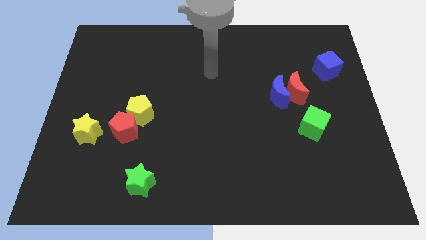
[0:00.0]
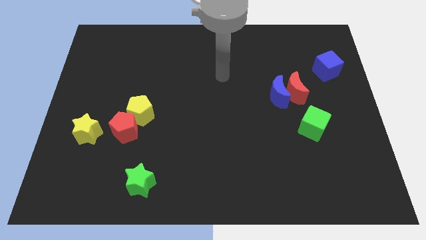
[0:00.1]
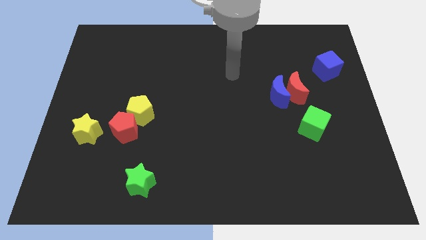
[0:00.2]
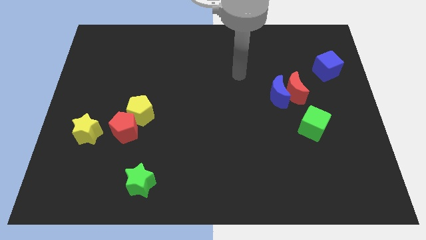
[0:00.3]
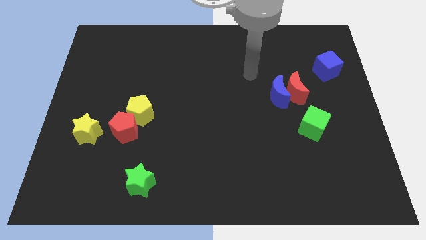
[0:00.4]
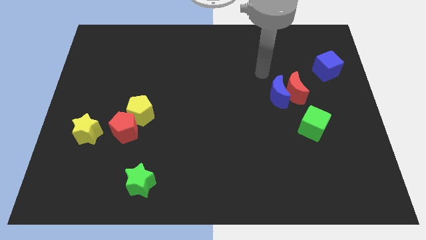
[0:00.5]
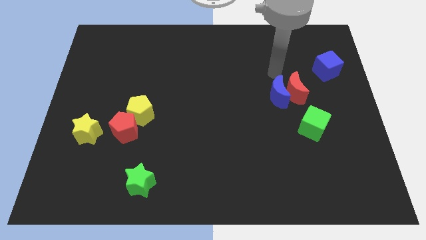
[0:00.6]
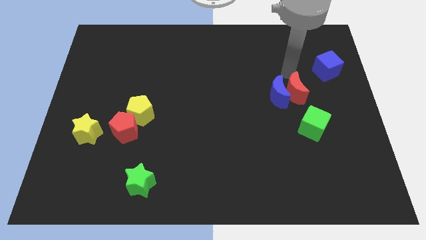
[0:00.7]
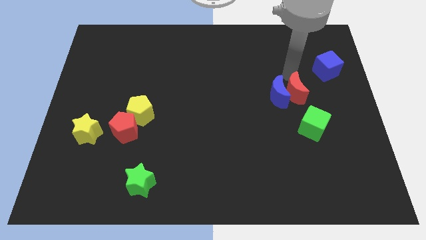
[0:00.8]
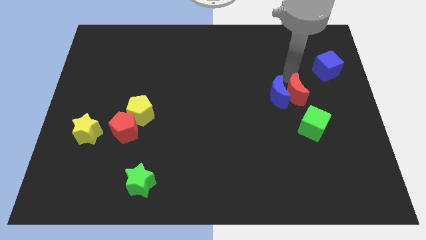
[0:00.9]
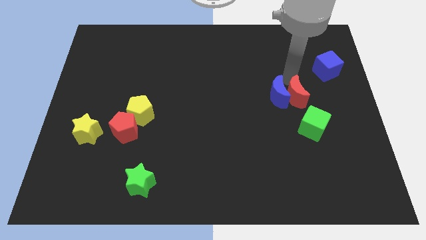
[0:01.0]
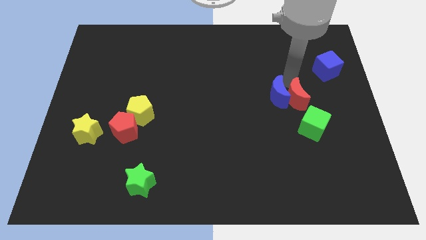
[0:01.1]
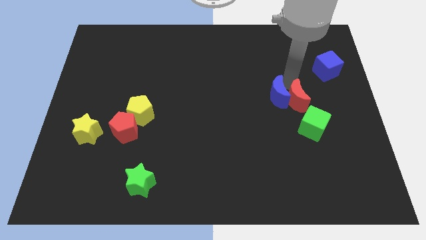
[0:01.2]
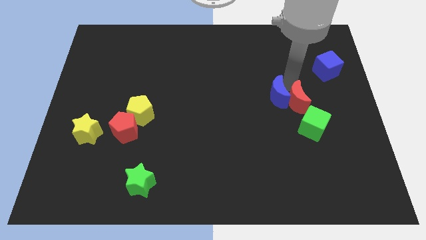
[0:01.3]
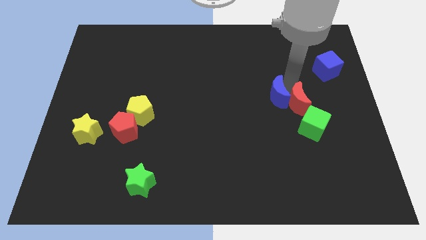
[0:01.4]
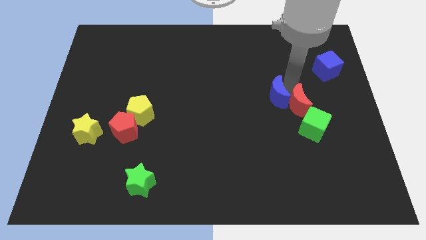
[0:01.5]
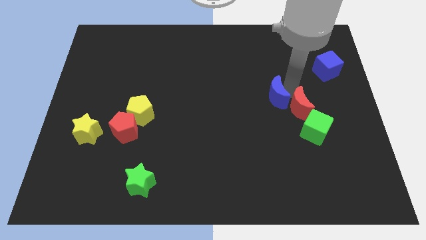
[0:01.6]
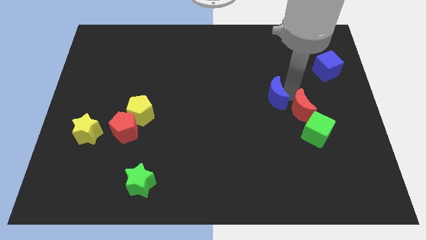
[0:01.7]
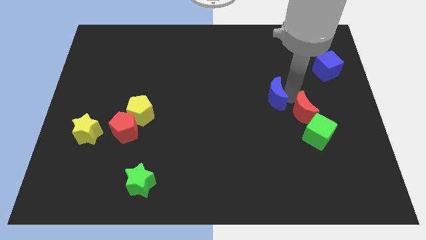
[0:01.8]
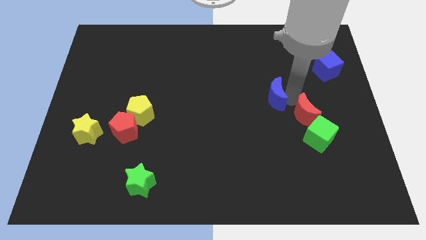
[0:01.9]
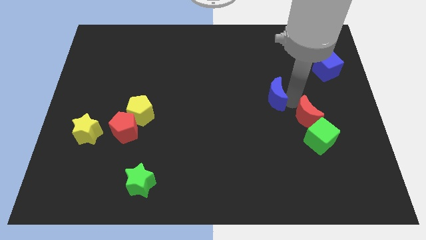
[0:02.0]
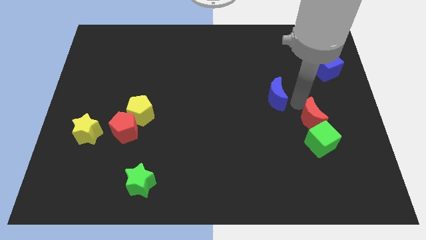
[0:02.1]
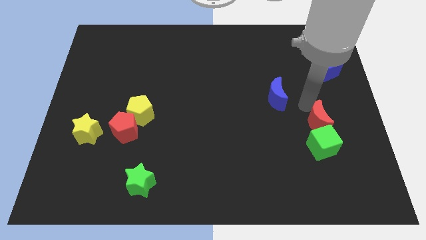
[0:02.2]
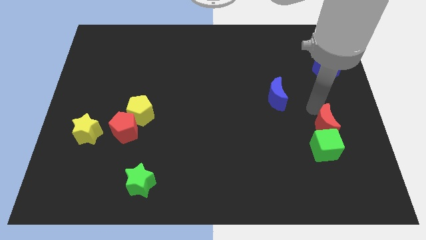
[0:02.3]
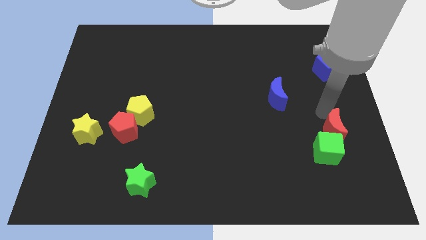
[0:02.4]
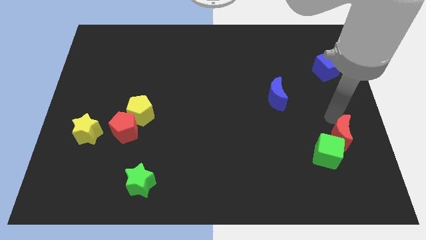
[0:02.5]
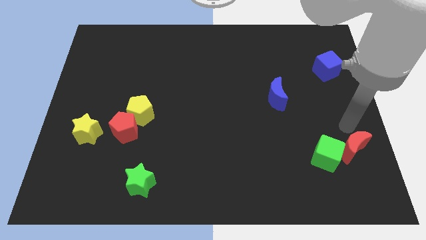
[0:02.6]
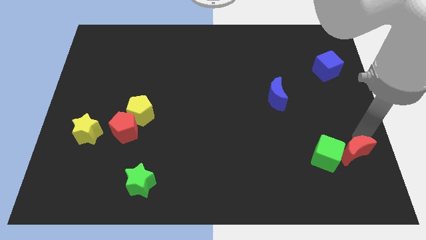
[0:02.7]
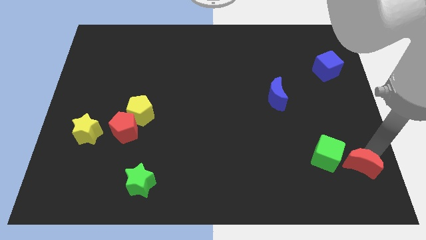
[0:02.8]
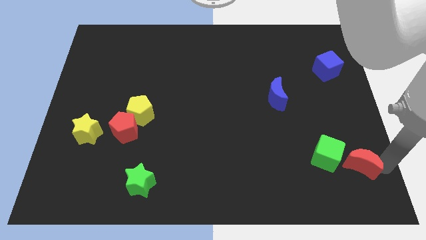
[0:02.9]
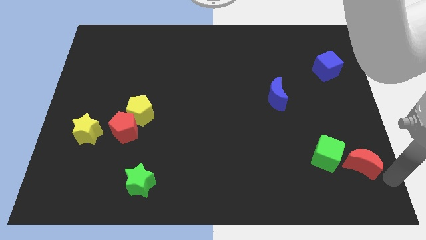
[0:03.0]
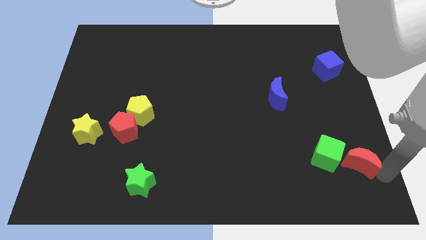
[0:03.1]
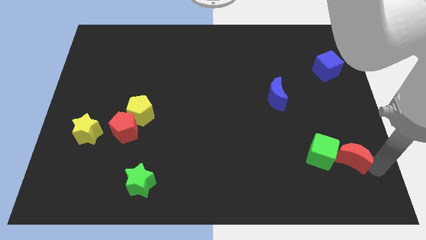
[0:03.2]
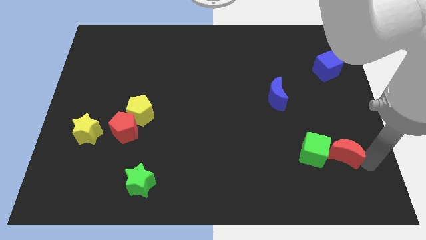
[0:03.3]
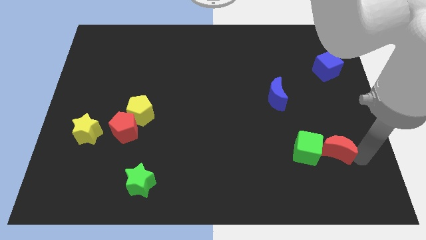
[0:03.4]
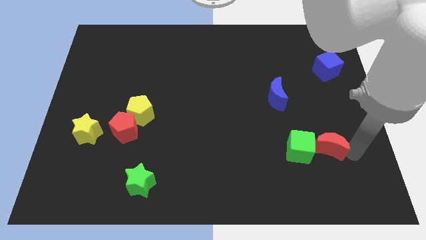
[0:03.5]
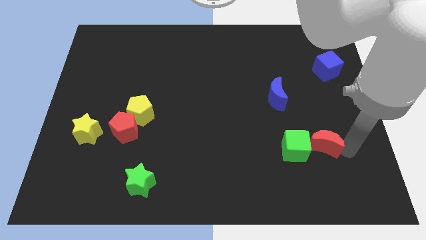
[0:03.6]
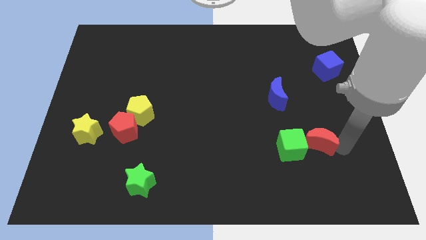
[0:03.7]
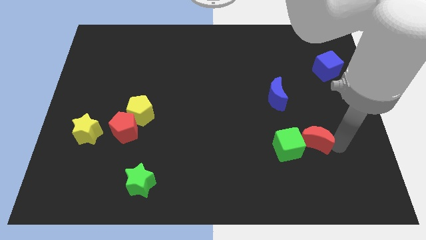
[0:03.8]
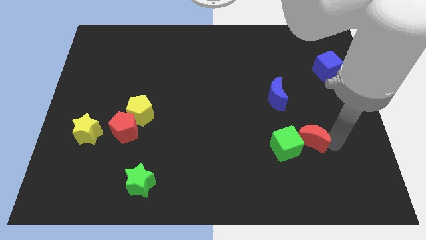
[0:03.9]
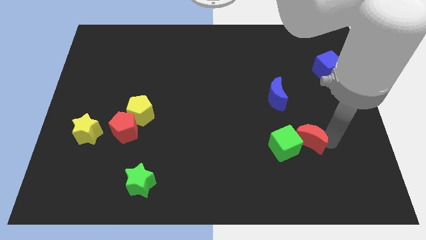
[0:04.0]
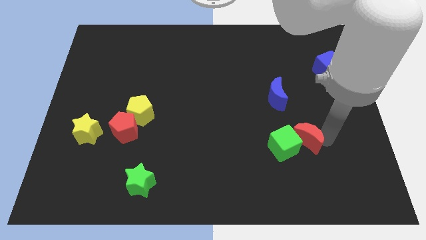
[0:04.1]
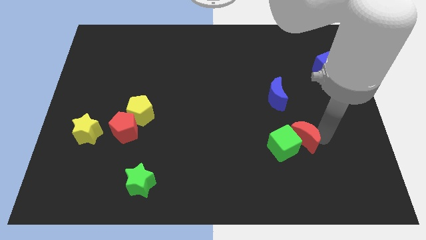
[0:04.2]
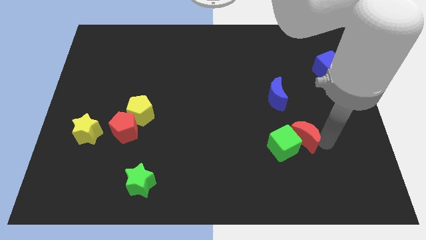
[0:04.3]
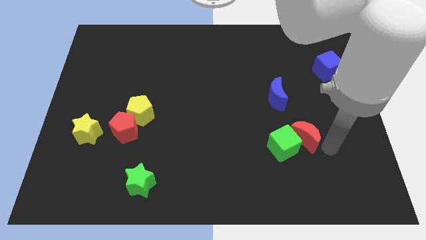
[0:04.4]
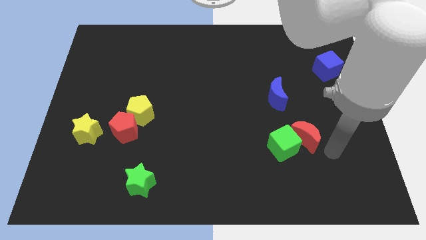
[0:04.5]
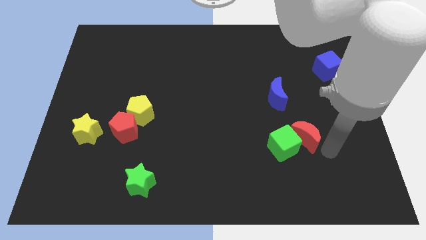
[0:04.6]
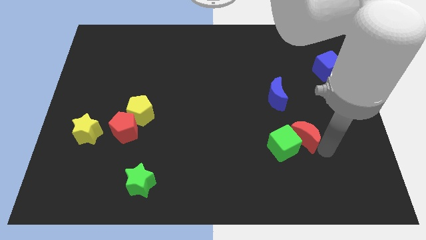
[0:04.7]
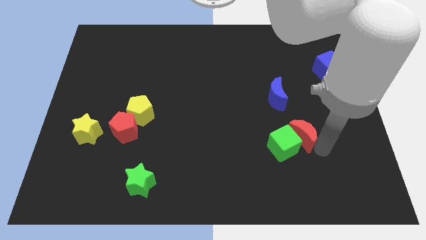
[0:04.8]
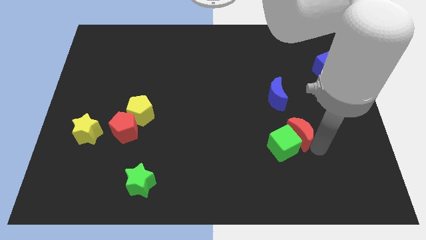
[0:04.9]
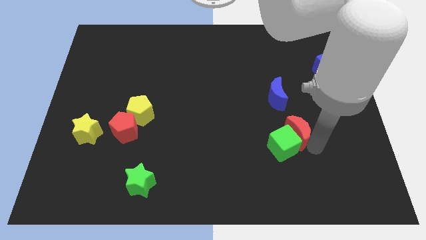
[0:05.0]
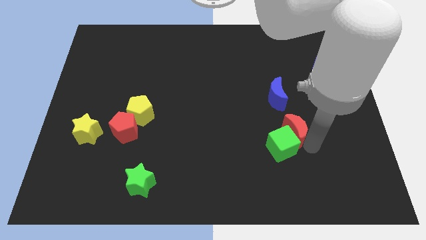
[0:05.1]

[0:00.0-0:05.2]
slide the red moon downwards and left diagonally slightly

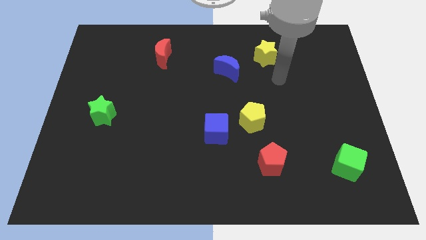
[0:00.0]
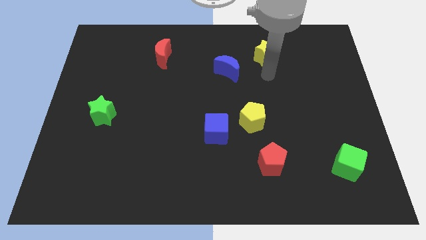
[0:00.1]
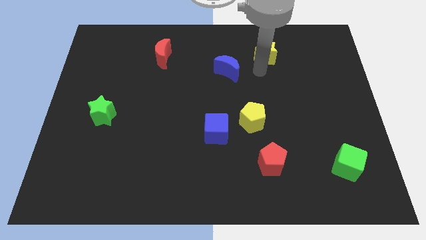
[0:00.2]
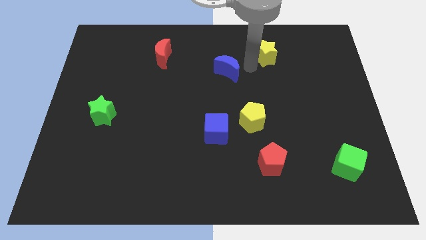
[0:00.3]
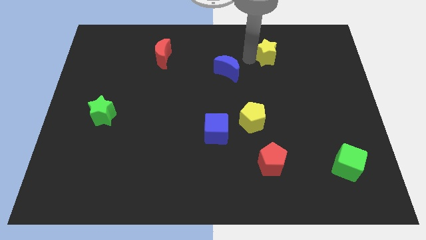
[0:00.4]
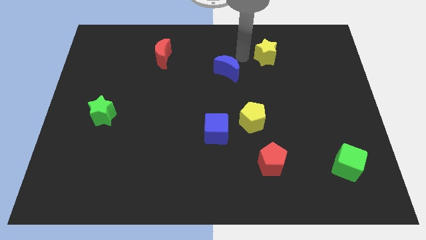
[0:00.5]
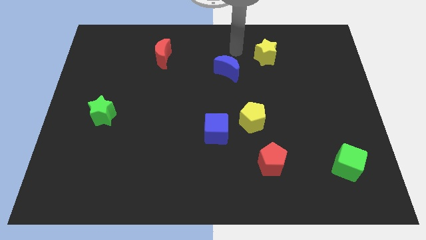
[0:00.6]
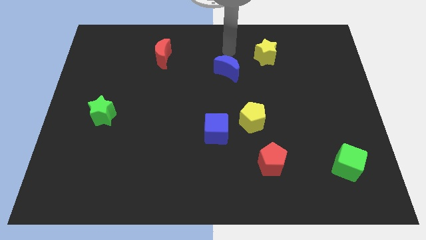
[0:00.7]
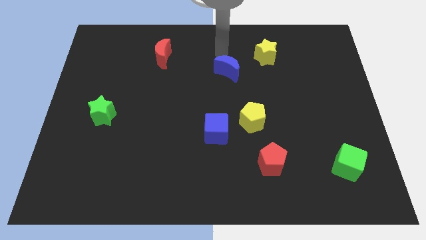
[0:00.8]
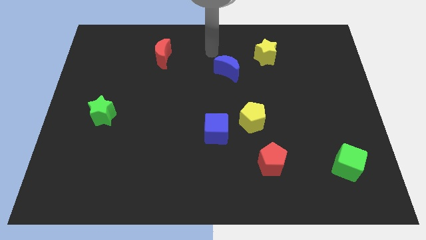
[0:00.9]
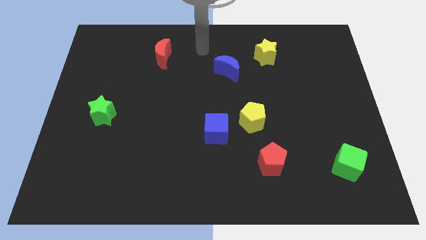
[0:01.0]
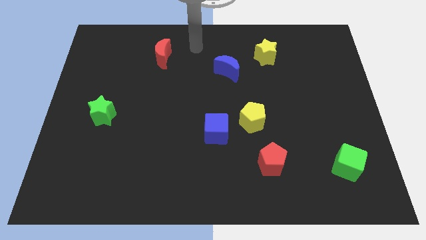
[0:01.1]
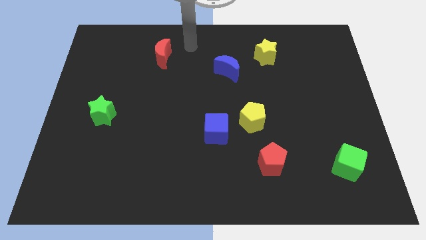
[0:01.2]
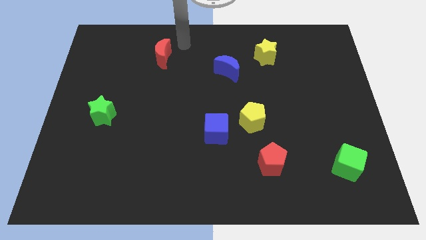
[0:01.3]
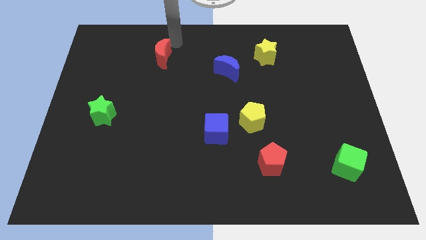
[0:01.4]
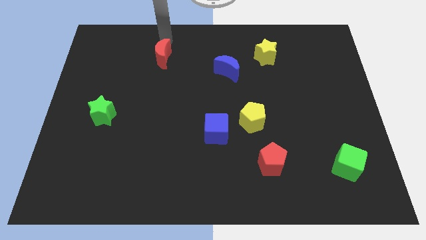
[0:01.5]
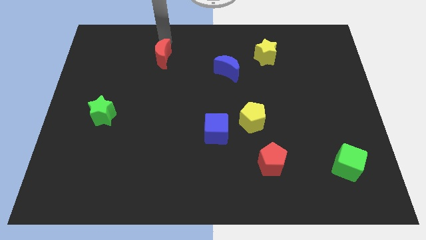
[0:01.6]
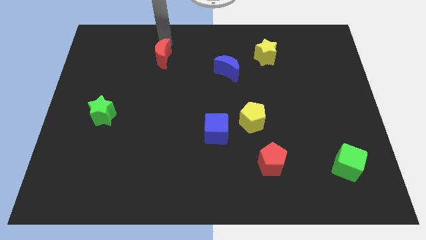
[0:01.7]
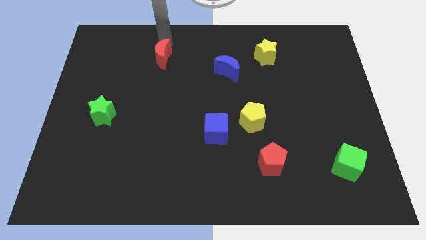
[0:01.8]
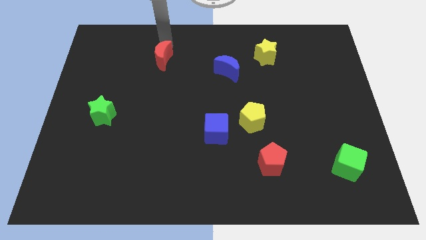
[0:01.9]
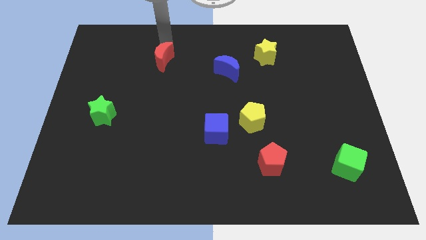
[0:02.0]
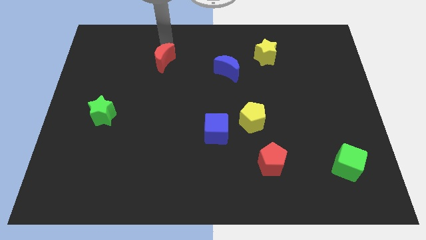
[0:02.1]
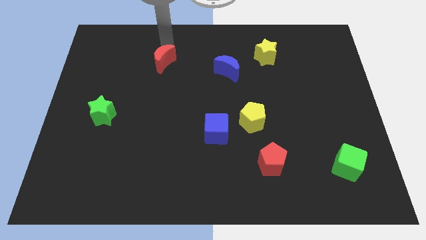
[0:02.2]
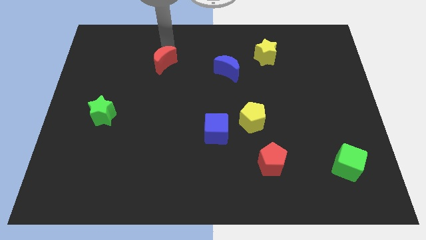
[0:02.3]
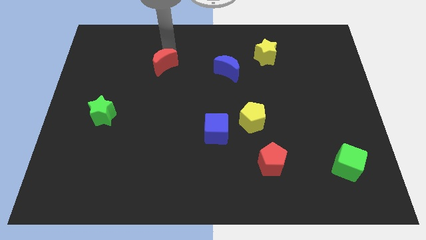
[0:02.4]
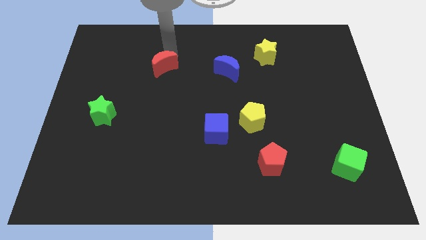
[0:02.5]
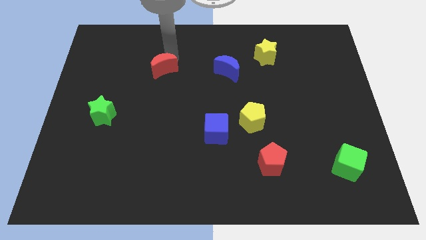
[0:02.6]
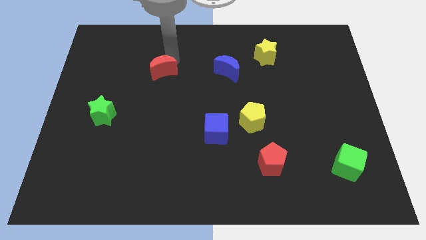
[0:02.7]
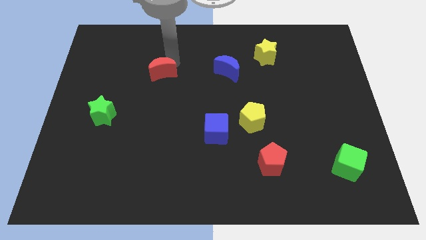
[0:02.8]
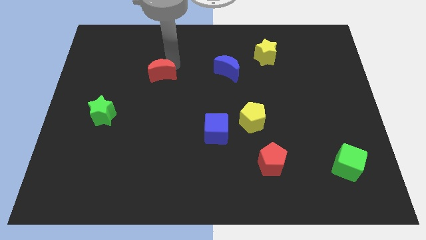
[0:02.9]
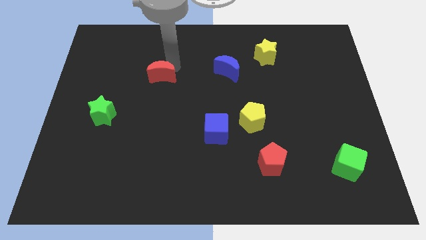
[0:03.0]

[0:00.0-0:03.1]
move the red moon downwards a bit
